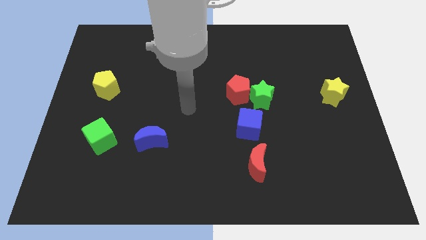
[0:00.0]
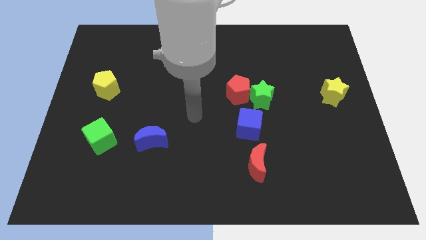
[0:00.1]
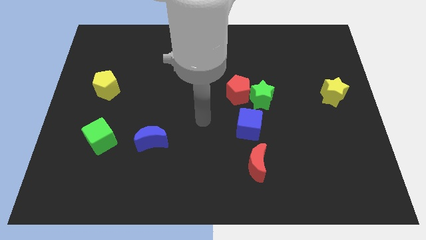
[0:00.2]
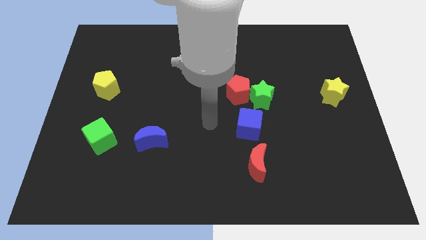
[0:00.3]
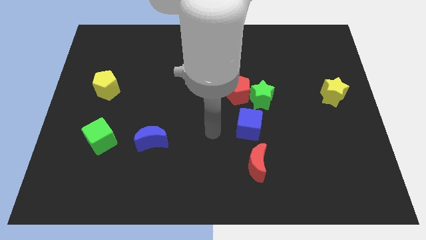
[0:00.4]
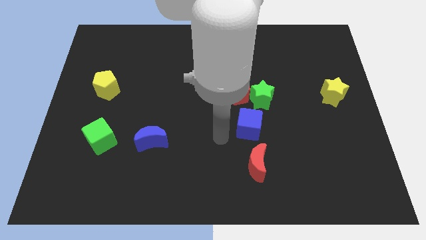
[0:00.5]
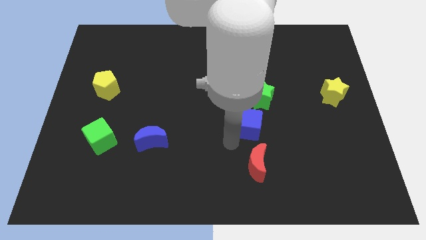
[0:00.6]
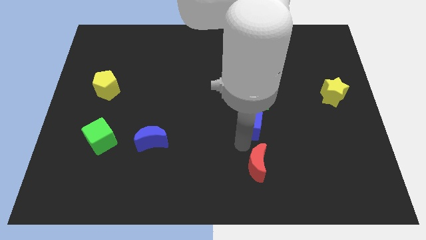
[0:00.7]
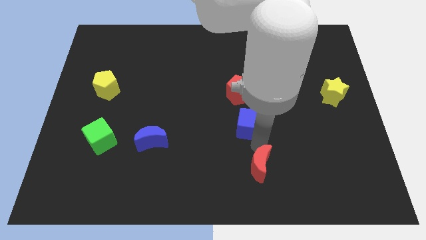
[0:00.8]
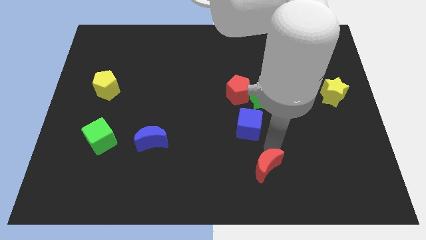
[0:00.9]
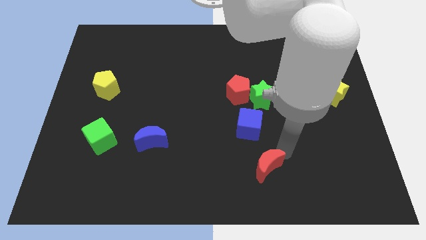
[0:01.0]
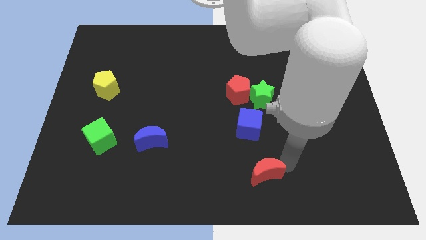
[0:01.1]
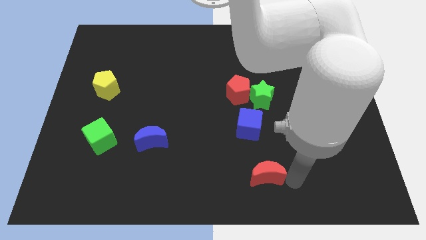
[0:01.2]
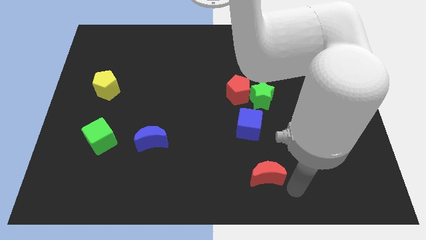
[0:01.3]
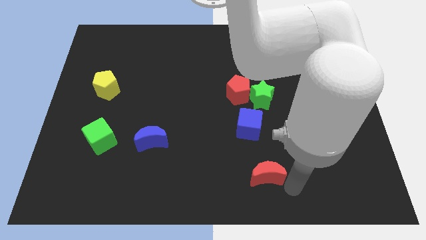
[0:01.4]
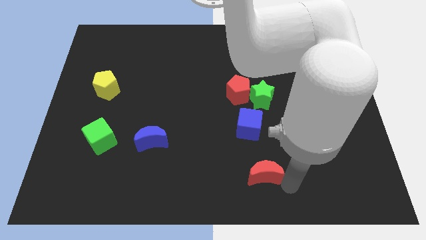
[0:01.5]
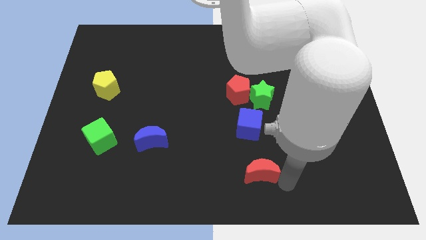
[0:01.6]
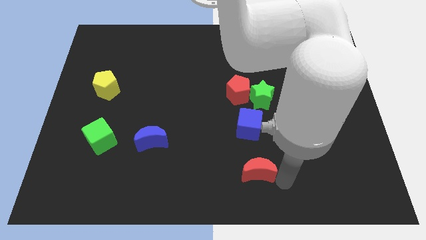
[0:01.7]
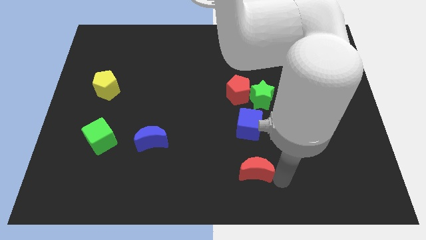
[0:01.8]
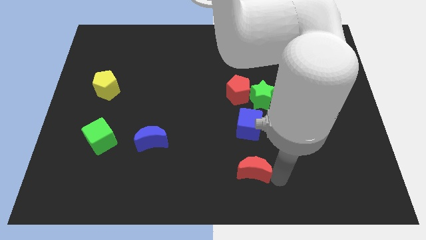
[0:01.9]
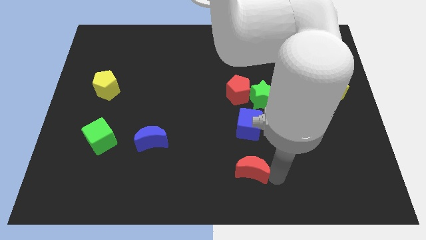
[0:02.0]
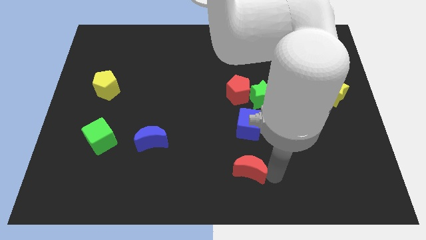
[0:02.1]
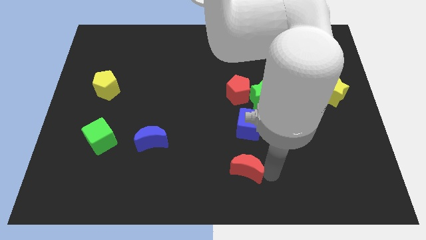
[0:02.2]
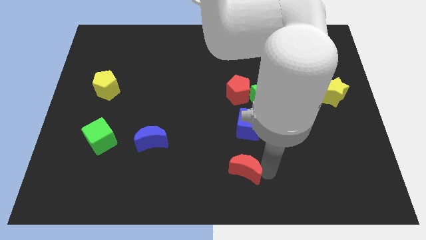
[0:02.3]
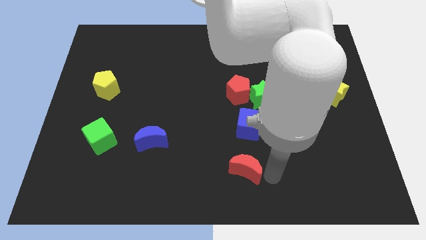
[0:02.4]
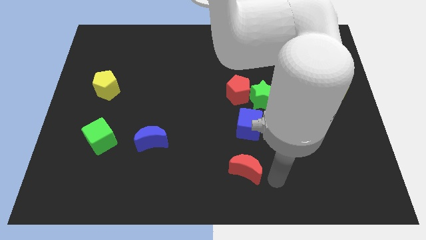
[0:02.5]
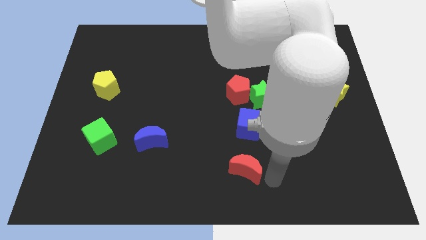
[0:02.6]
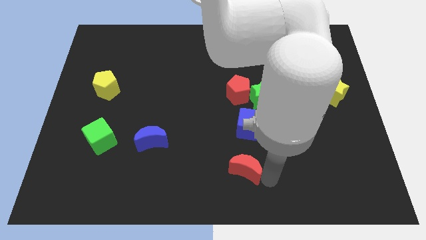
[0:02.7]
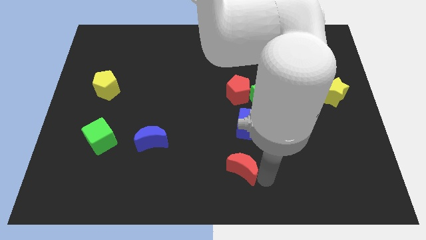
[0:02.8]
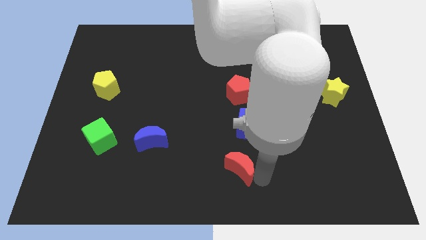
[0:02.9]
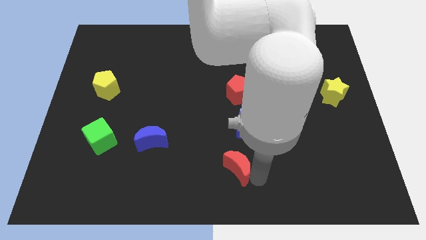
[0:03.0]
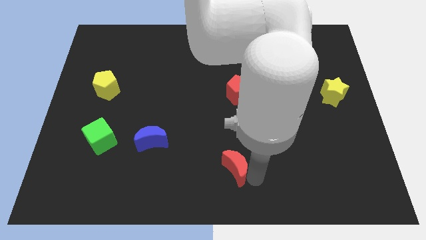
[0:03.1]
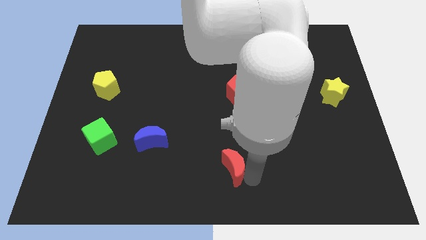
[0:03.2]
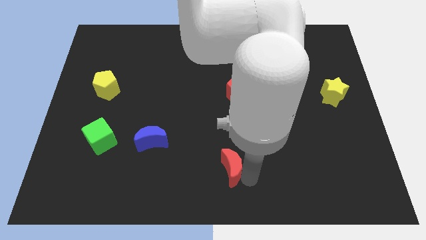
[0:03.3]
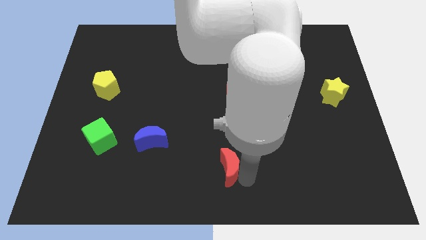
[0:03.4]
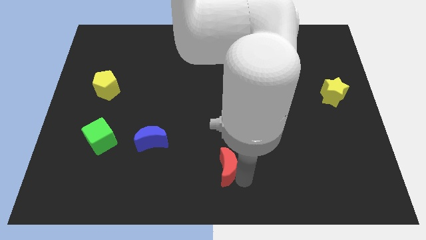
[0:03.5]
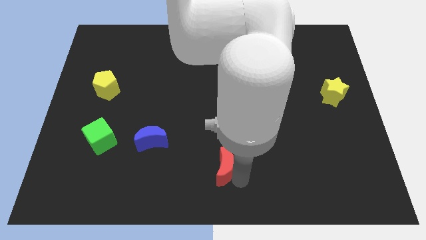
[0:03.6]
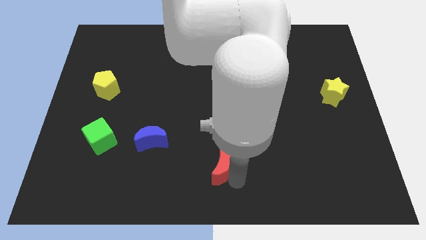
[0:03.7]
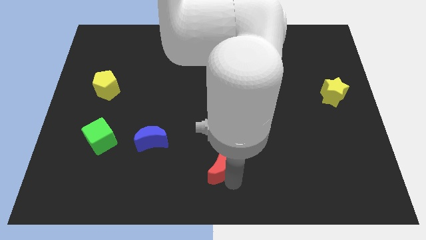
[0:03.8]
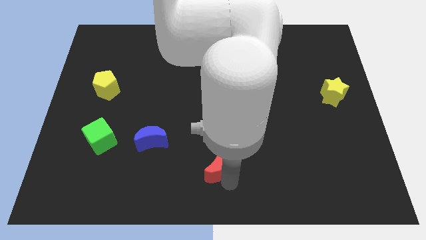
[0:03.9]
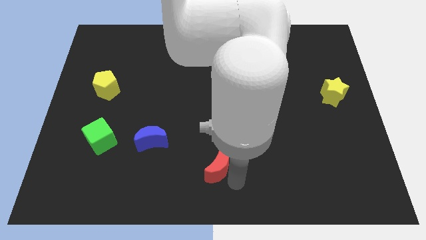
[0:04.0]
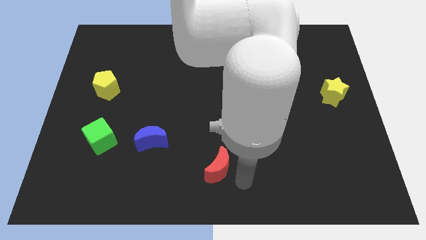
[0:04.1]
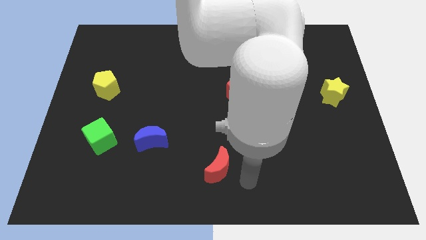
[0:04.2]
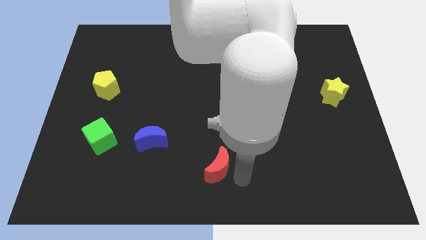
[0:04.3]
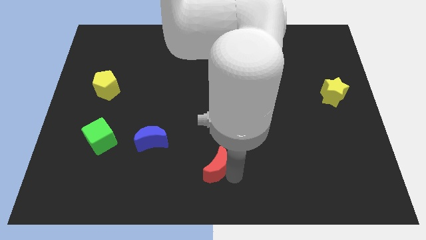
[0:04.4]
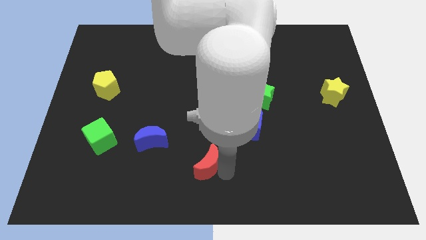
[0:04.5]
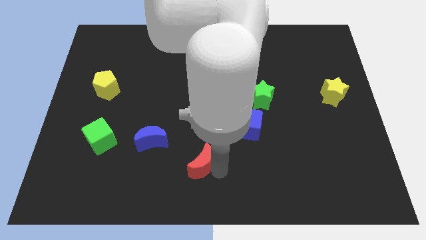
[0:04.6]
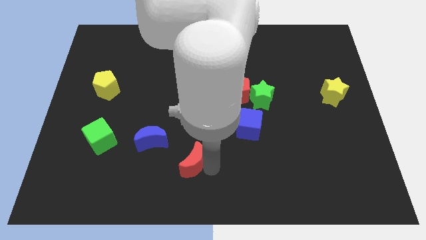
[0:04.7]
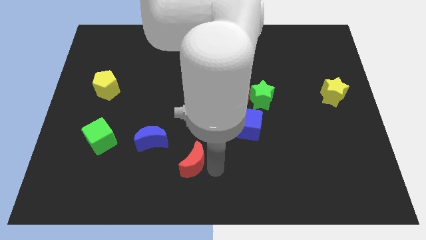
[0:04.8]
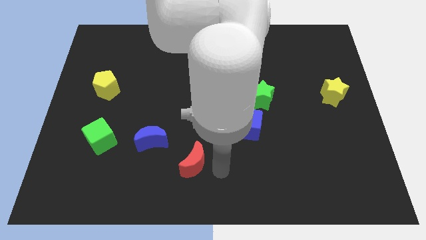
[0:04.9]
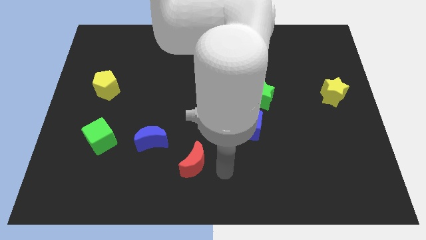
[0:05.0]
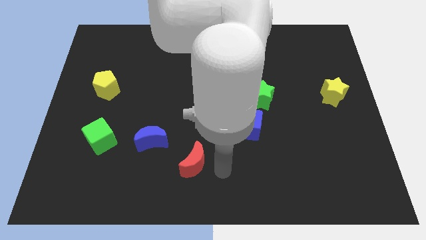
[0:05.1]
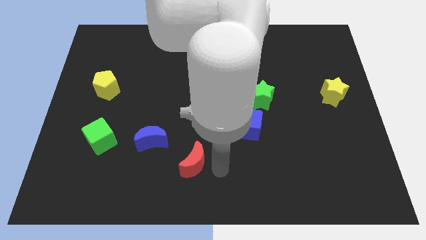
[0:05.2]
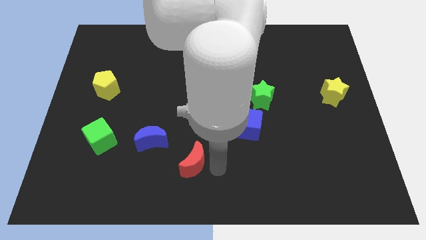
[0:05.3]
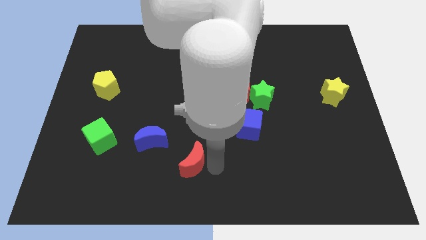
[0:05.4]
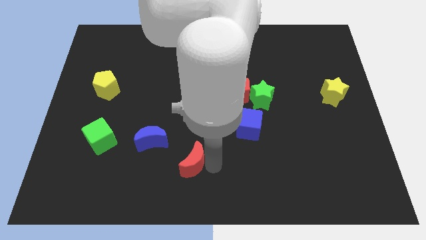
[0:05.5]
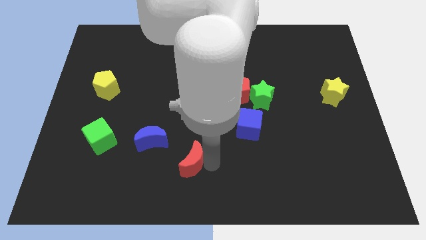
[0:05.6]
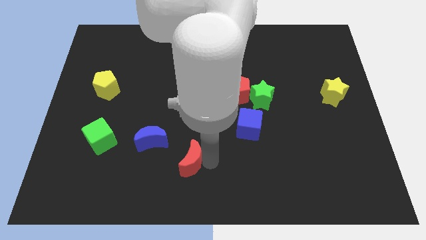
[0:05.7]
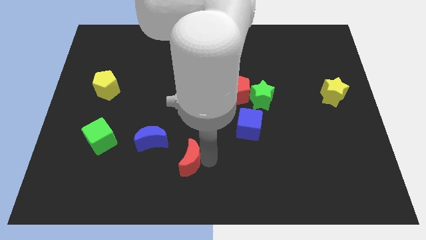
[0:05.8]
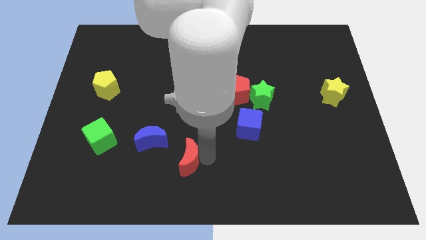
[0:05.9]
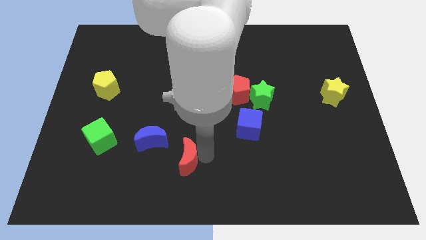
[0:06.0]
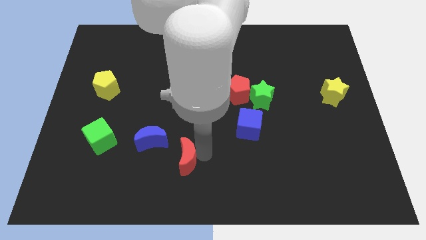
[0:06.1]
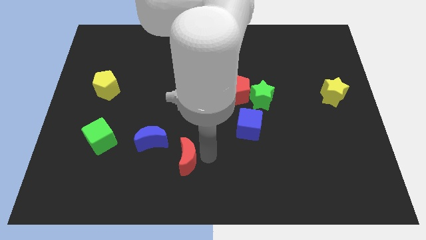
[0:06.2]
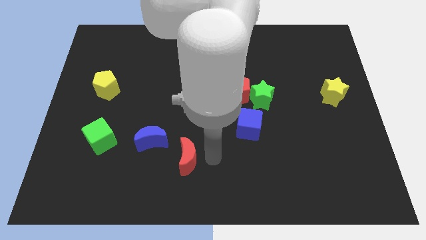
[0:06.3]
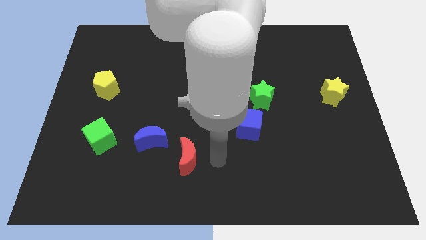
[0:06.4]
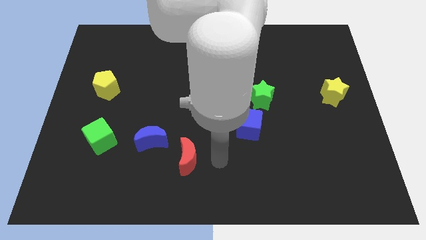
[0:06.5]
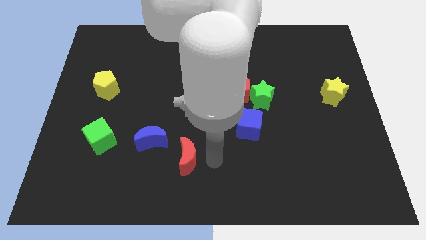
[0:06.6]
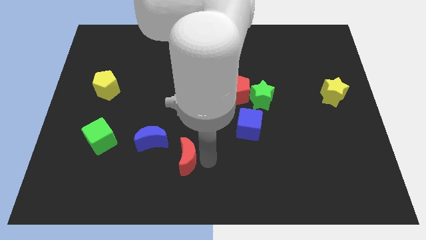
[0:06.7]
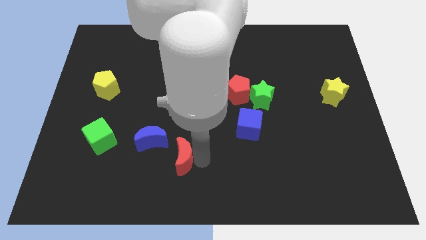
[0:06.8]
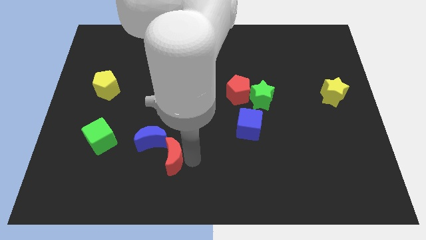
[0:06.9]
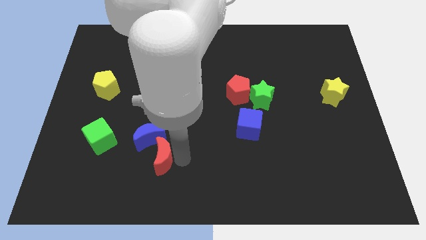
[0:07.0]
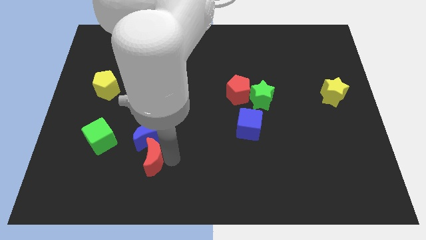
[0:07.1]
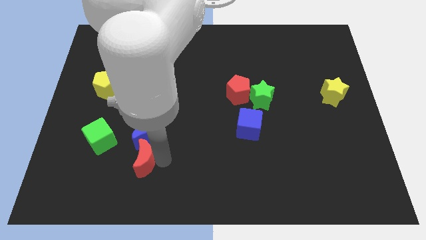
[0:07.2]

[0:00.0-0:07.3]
put the red moon to the bottom right of the green cube
